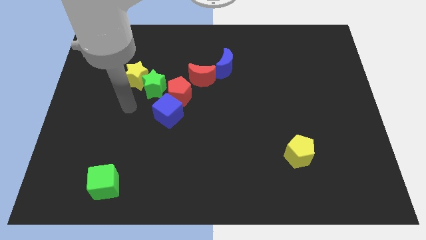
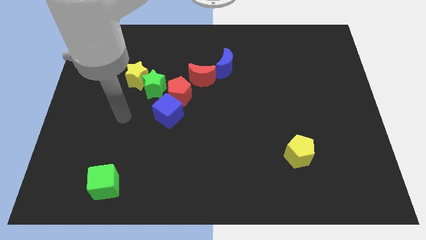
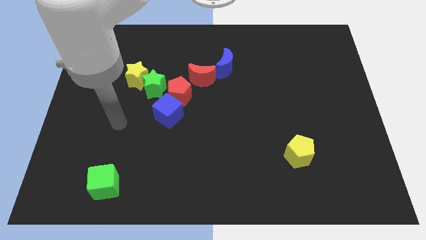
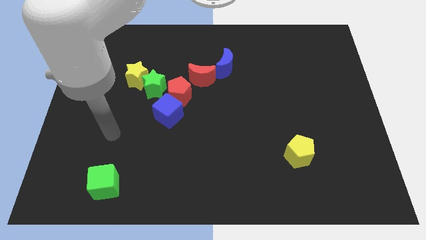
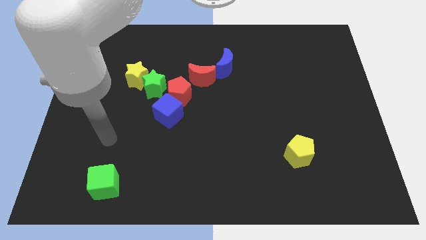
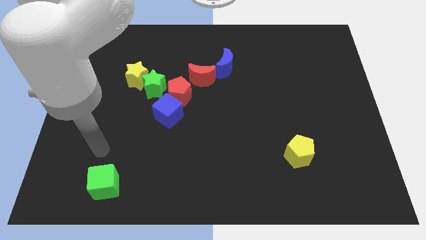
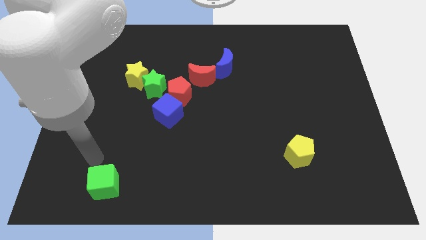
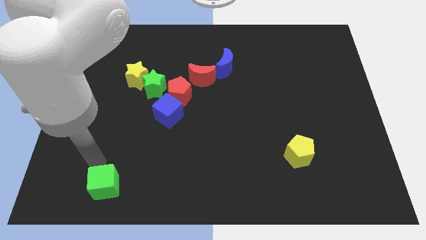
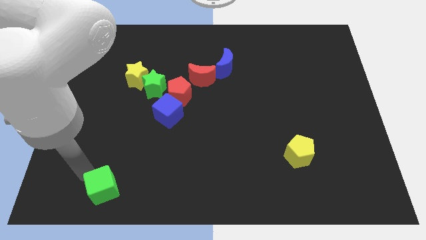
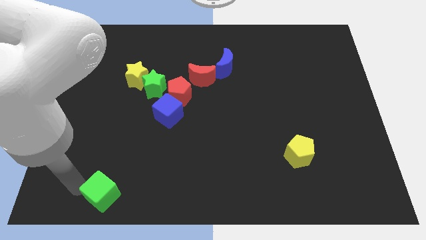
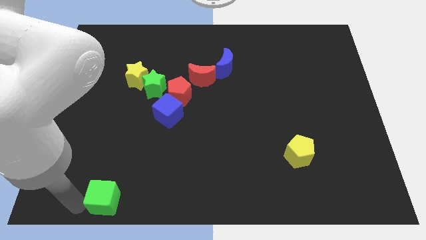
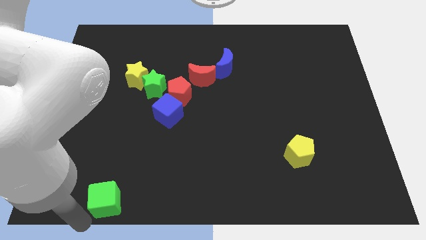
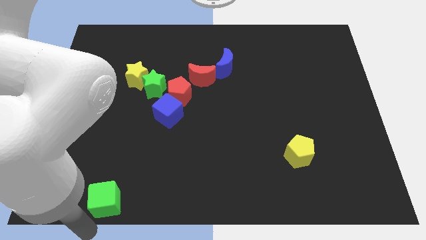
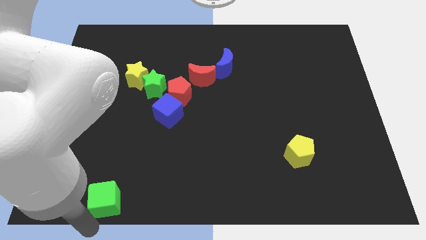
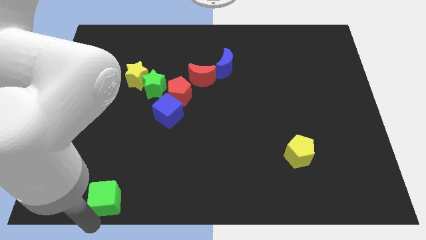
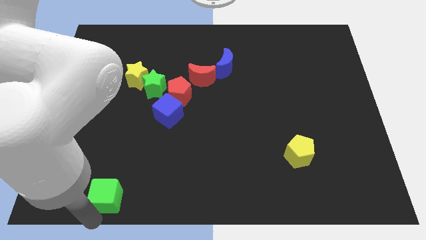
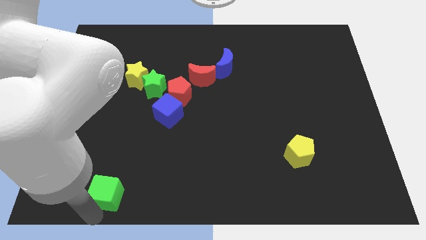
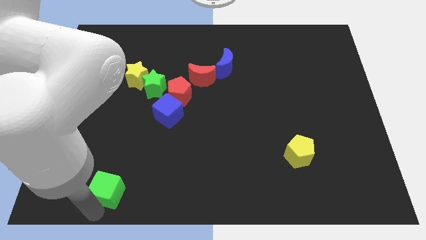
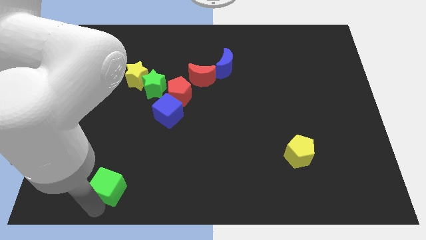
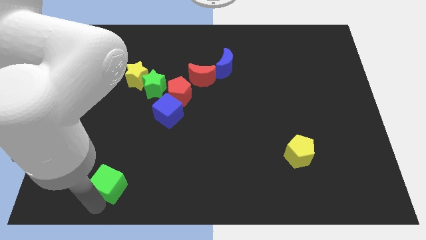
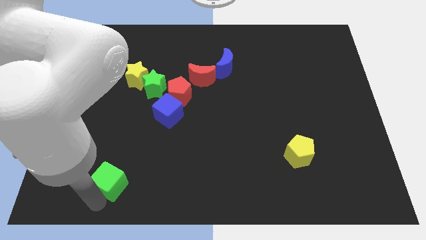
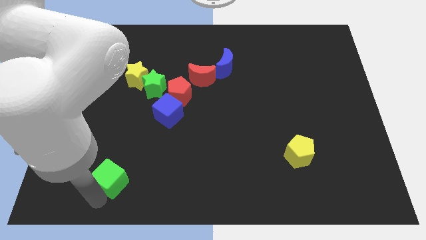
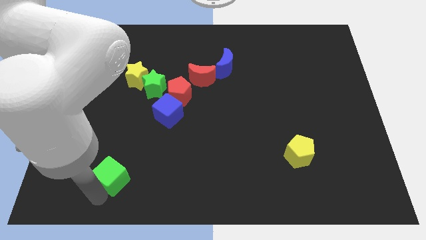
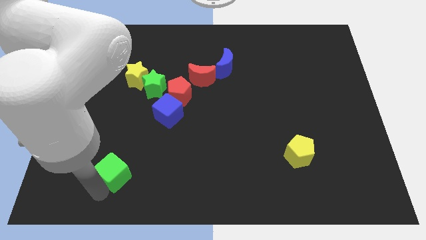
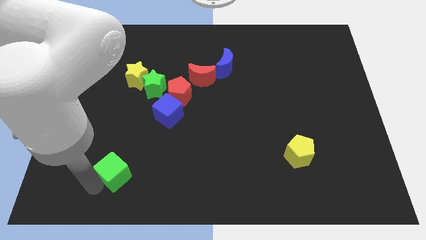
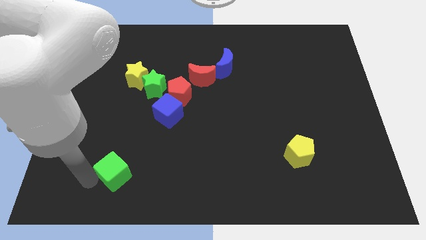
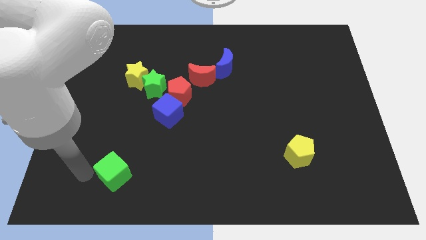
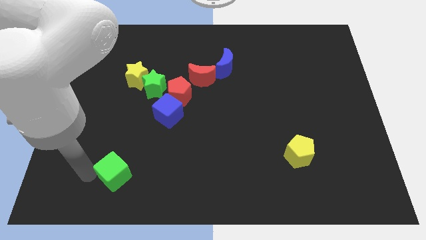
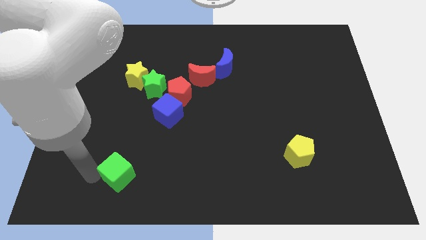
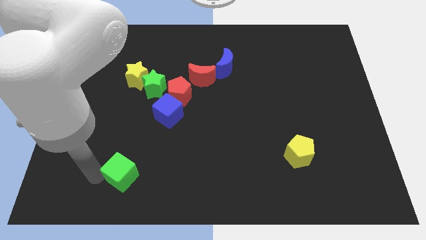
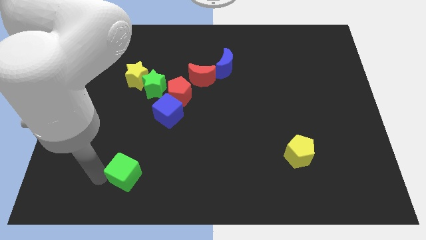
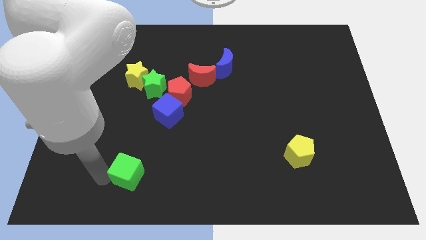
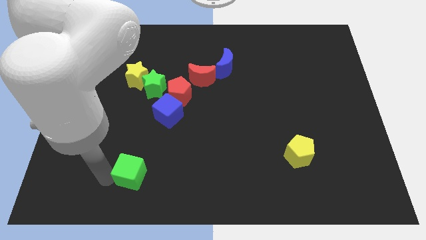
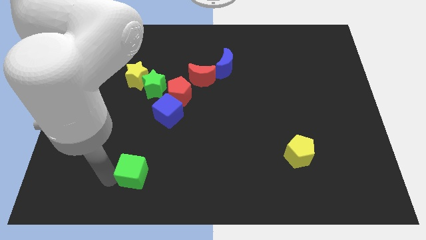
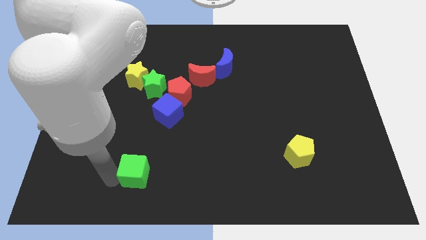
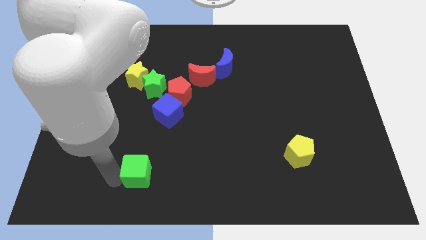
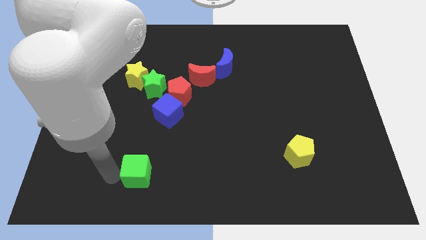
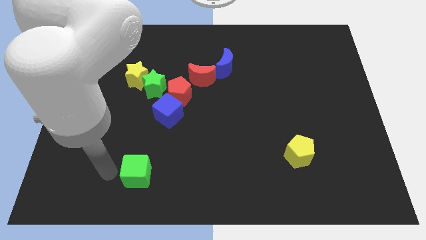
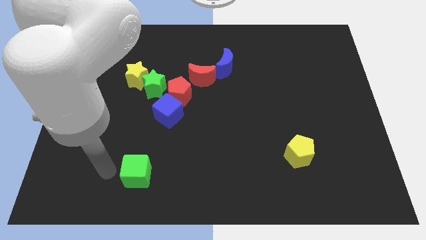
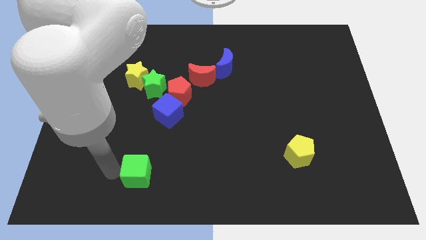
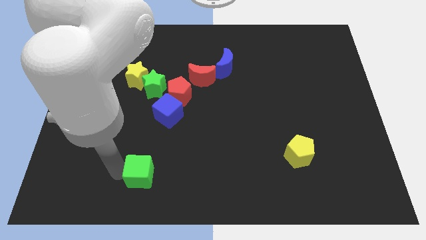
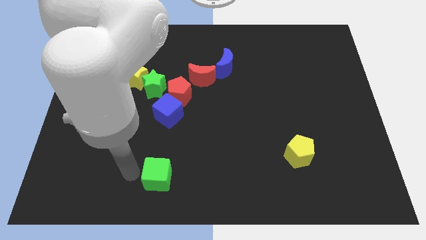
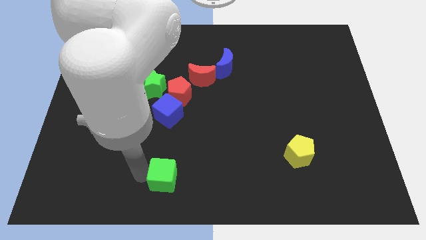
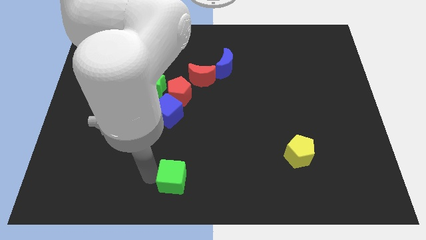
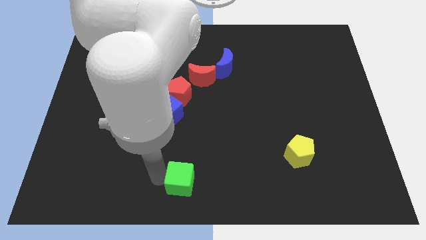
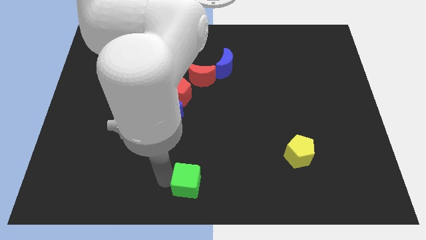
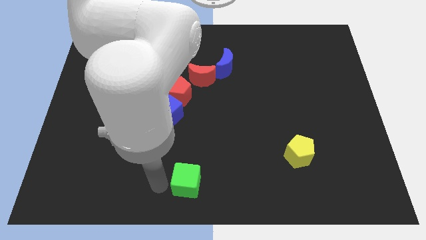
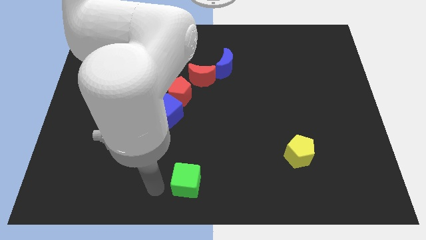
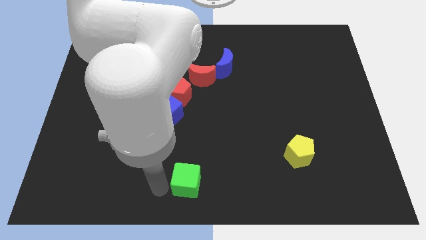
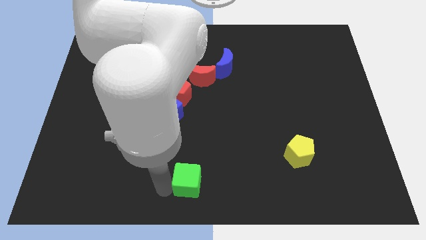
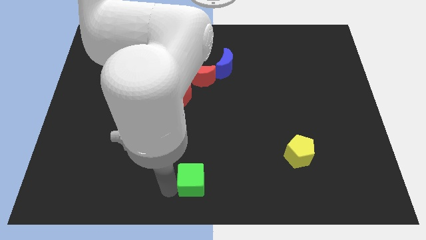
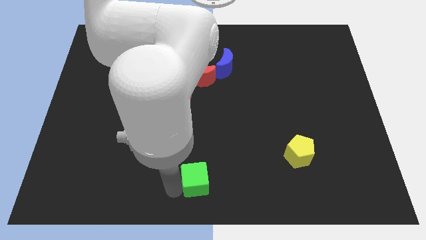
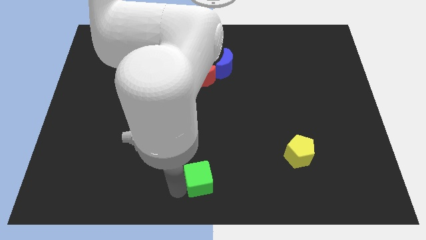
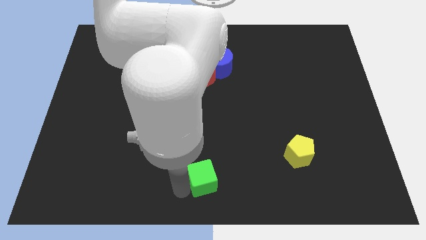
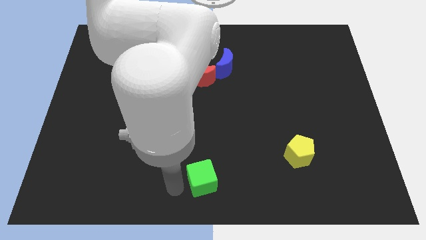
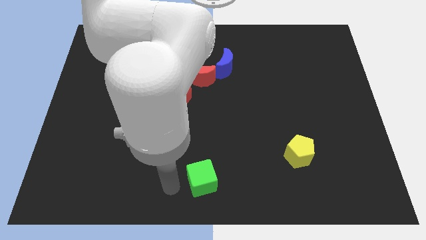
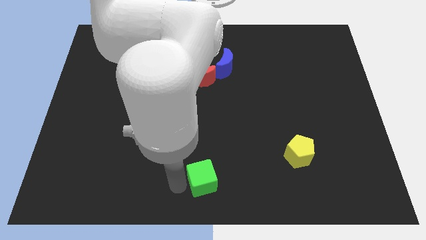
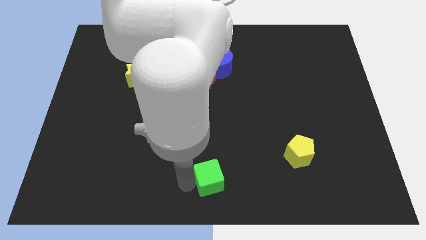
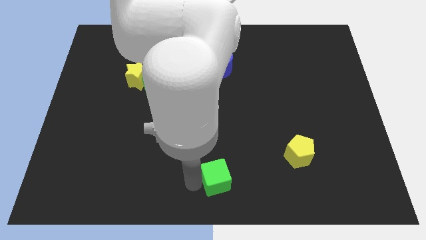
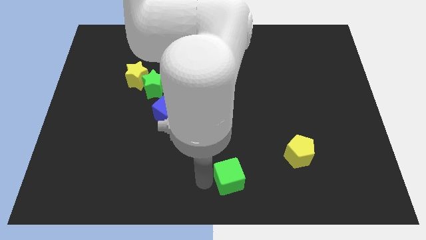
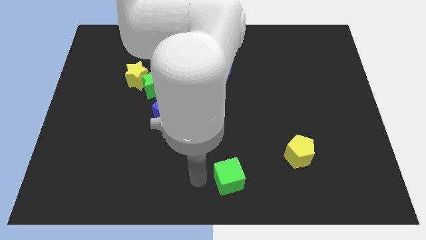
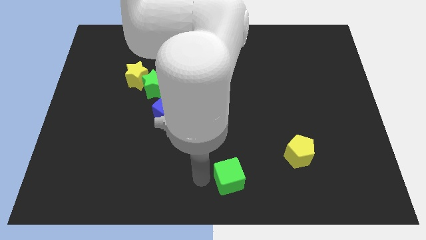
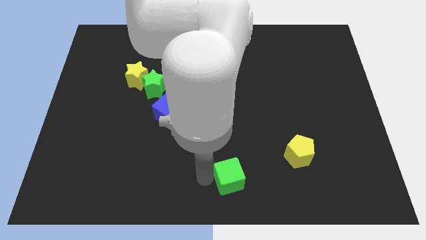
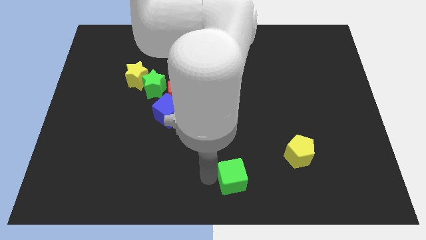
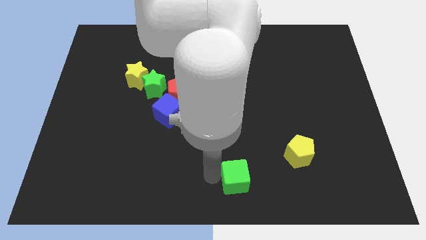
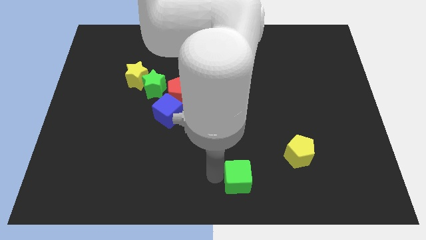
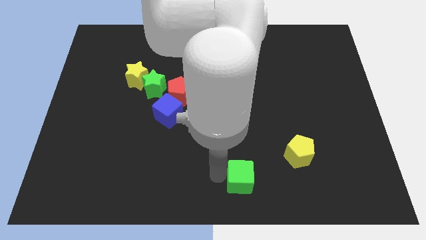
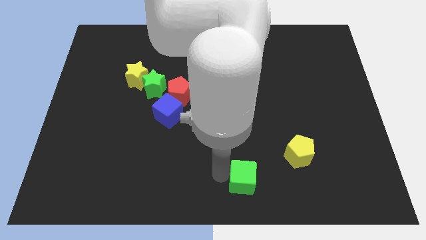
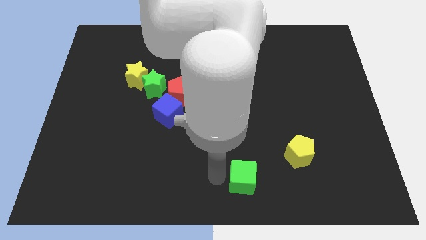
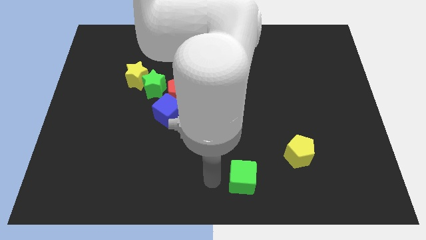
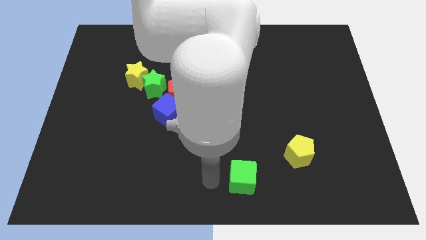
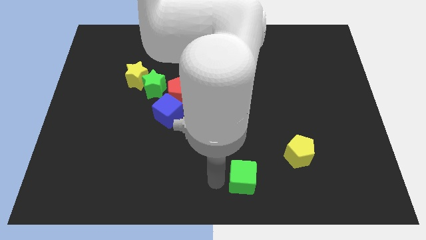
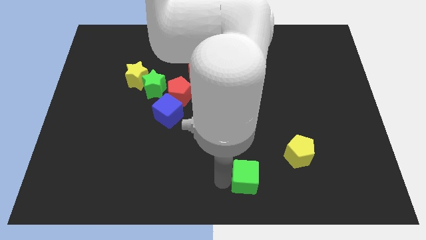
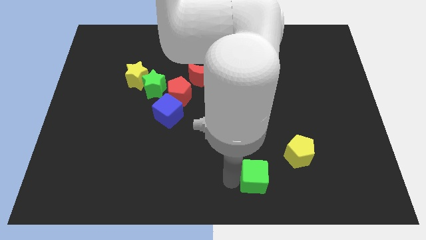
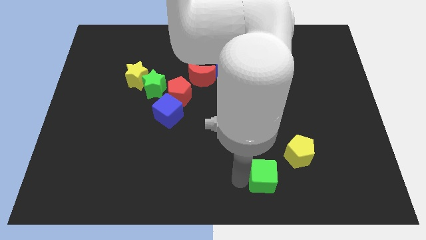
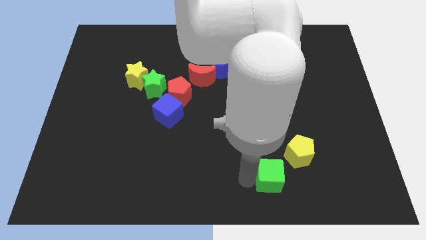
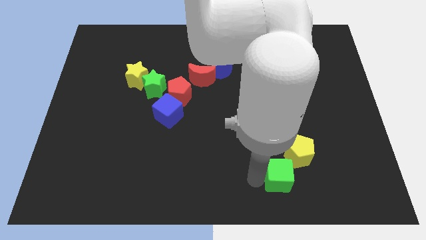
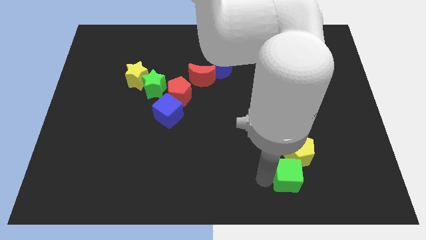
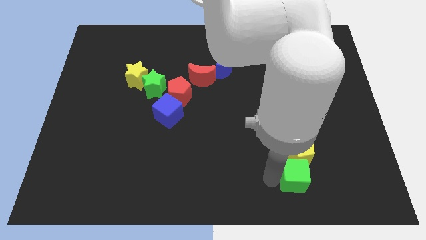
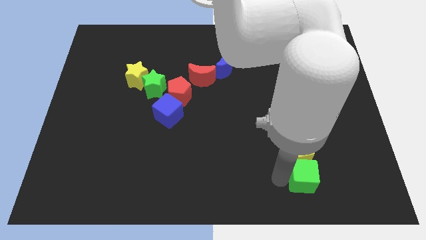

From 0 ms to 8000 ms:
push the green cube diagonally down and to the right of the yellow pentagon
